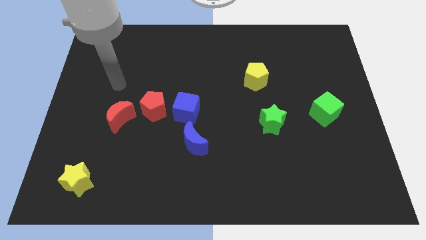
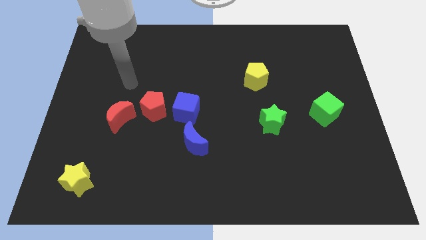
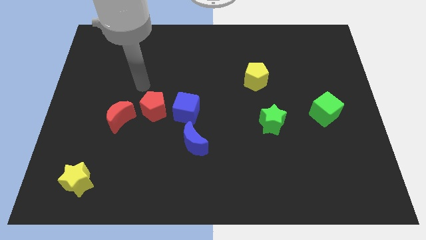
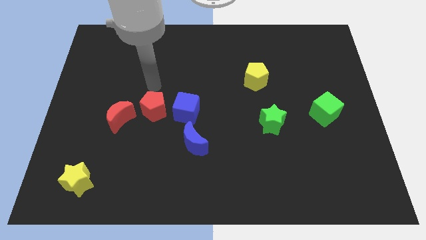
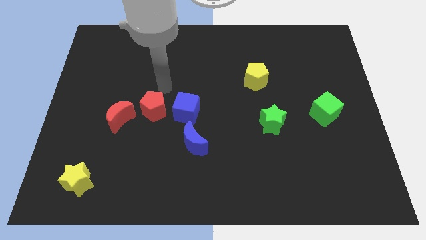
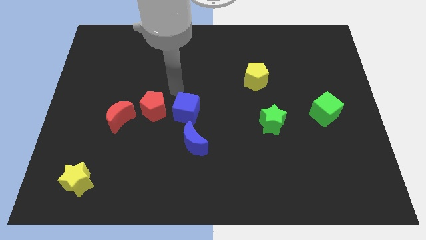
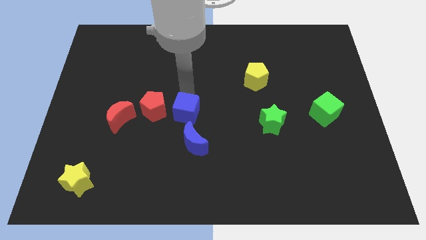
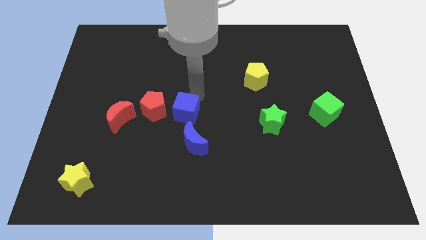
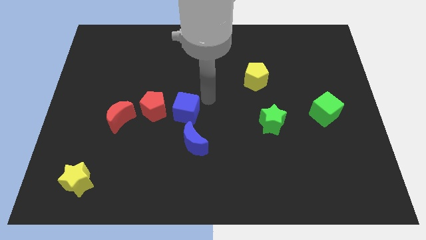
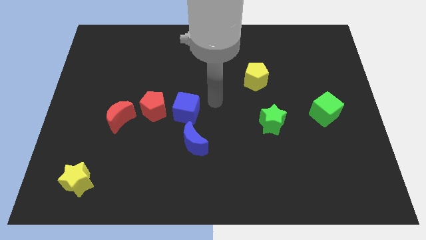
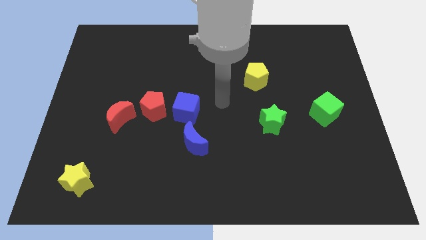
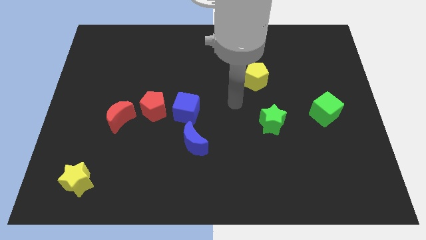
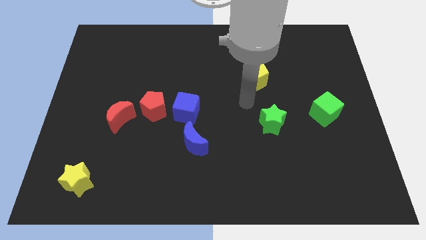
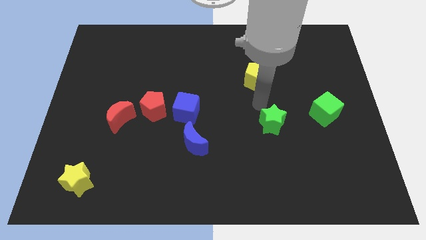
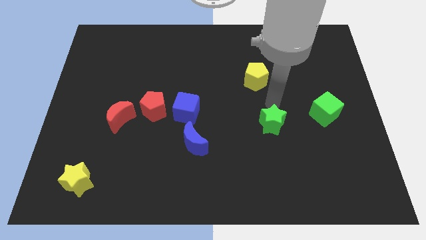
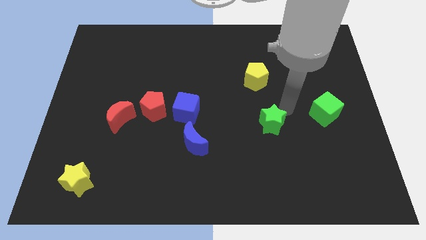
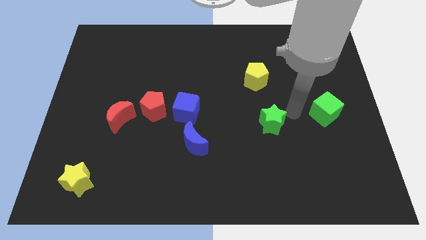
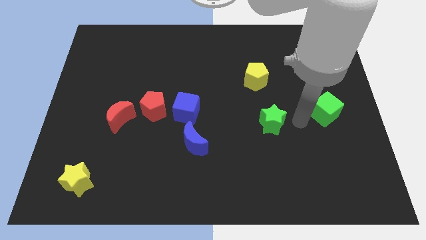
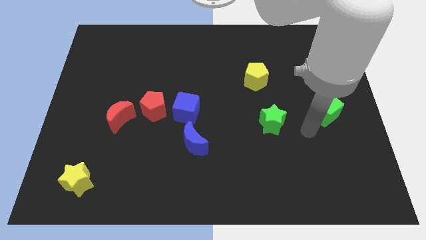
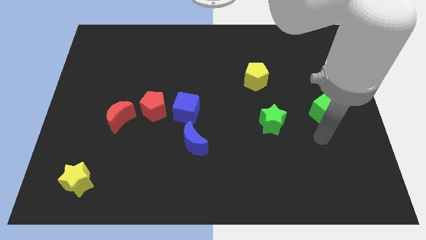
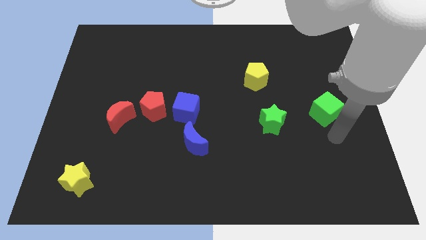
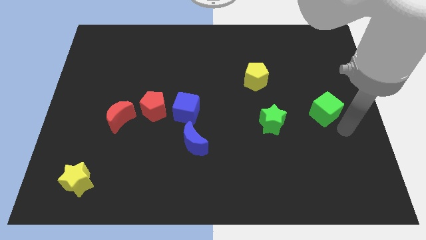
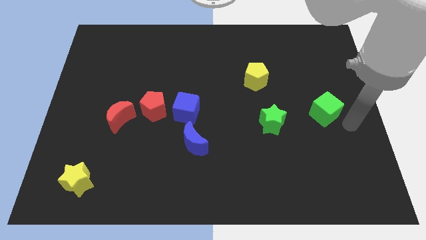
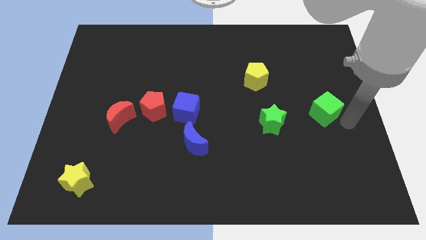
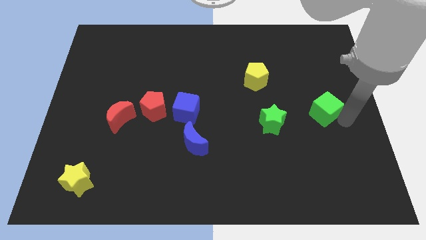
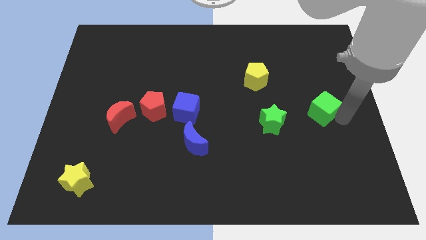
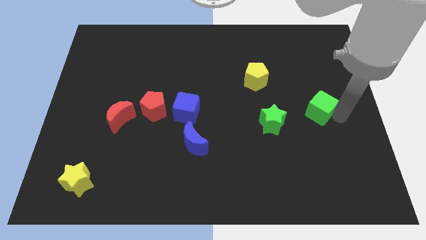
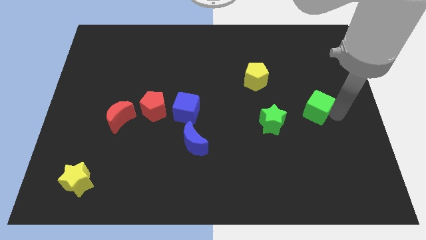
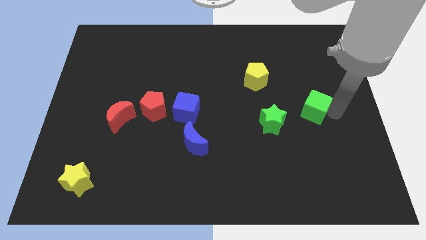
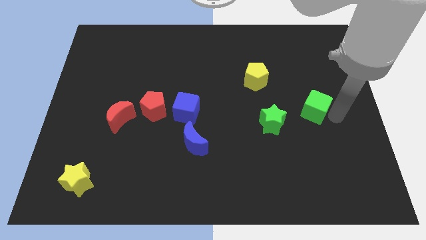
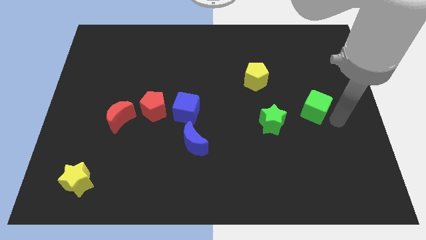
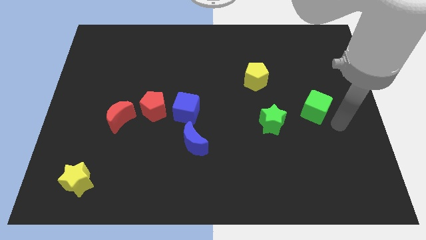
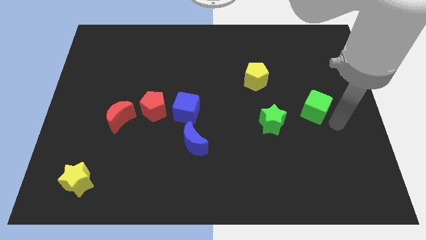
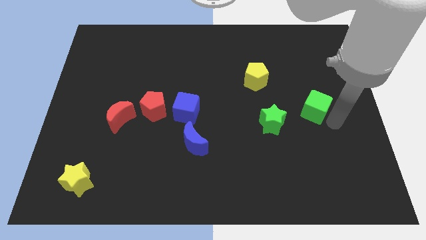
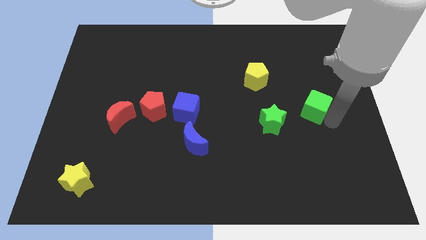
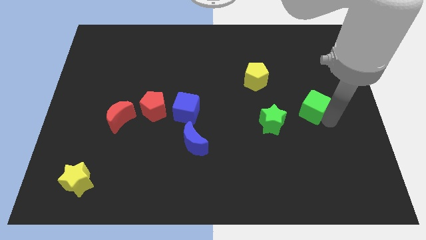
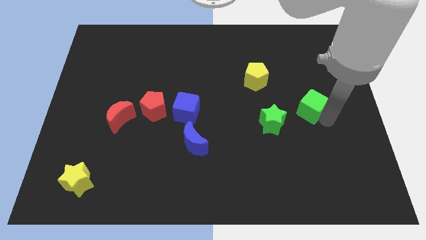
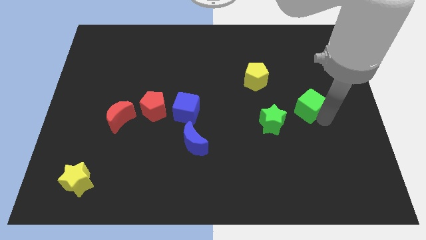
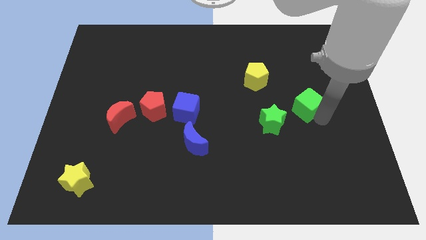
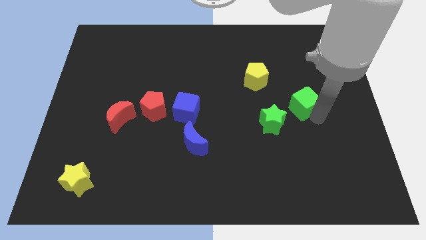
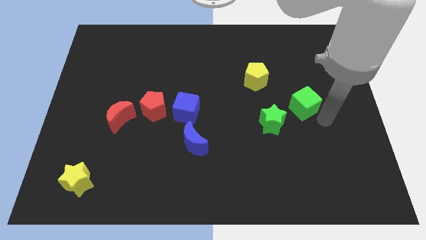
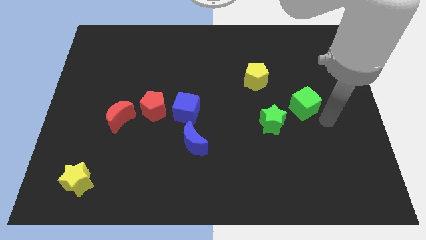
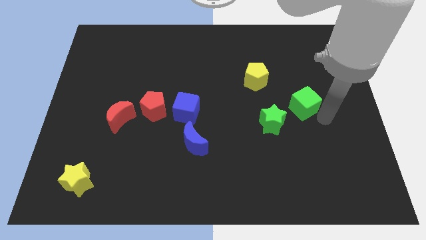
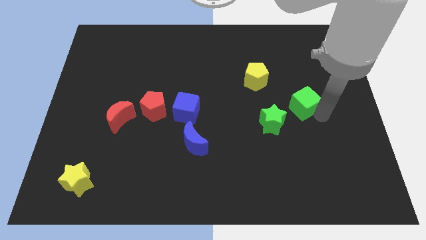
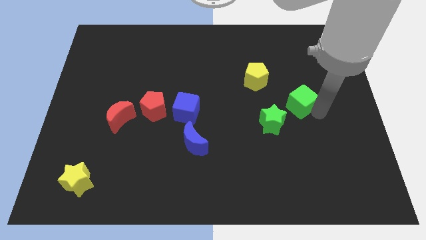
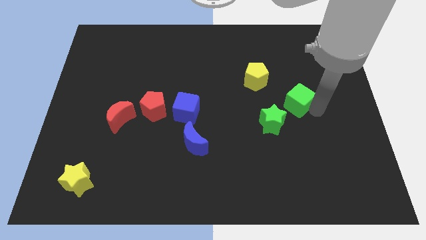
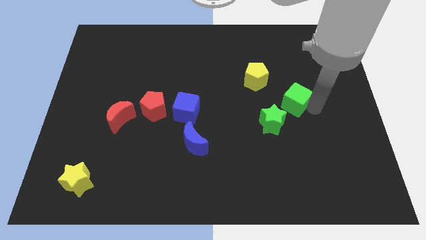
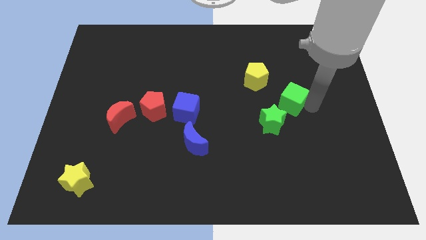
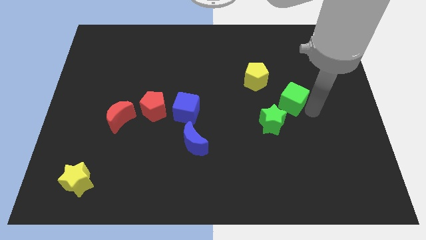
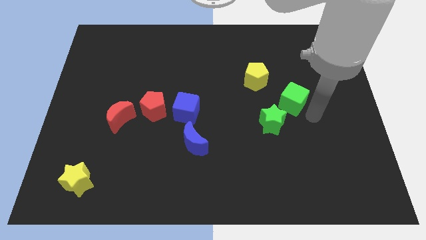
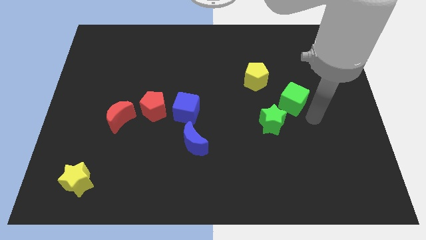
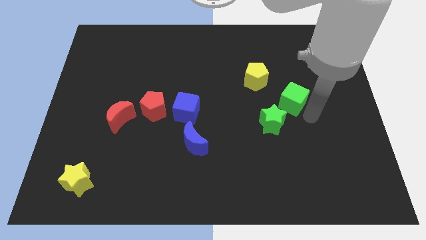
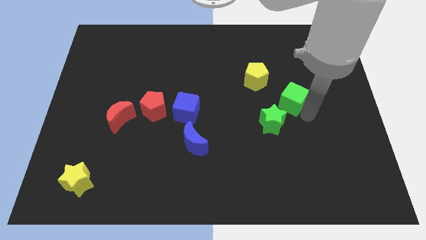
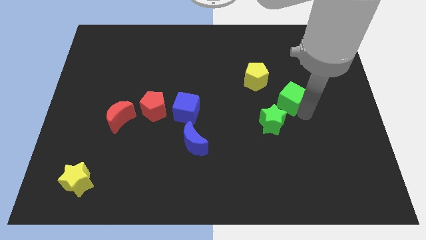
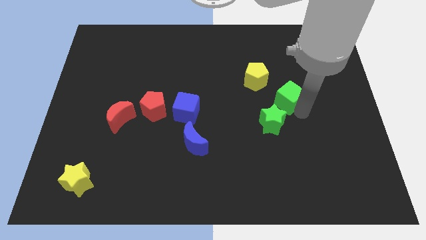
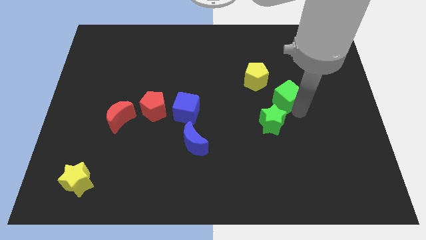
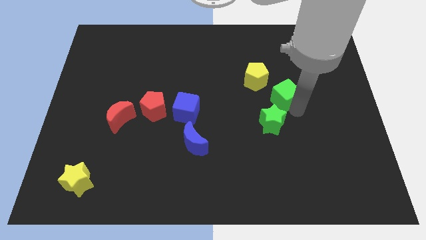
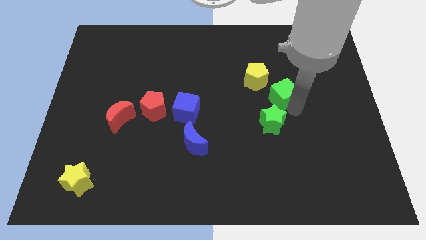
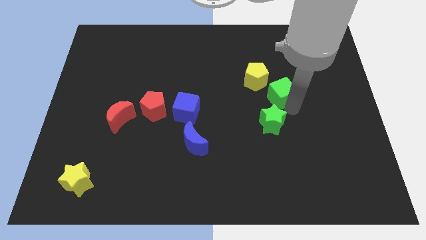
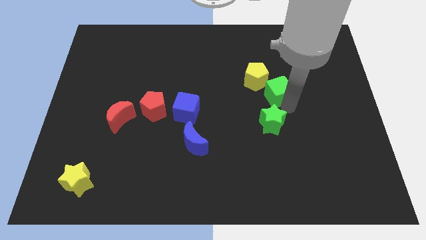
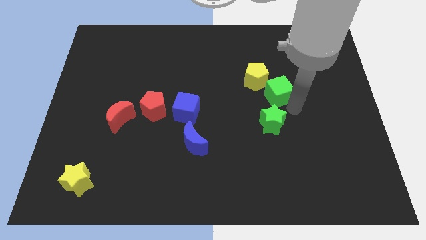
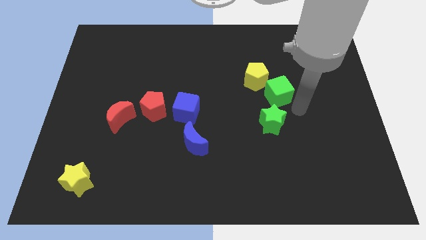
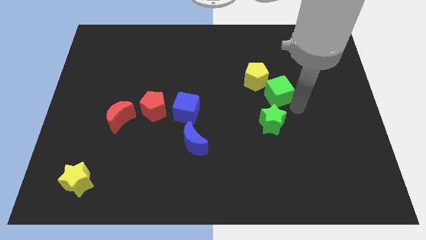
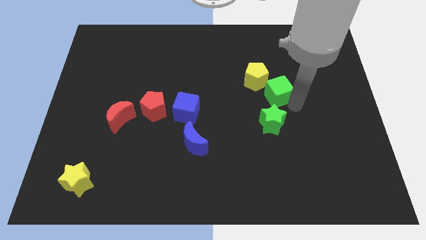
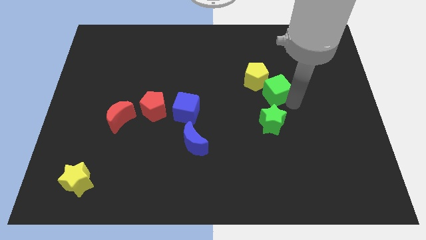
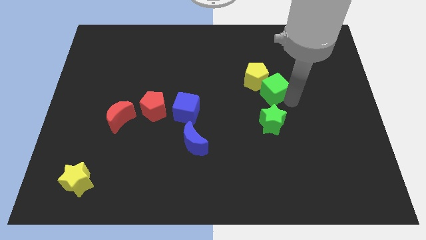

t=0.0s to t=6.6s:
push the green cube close to the yellow pentagon
